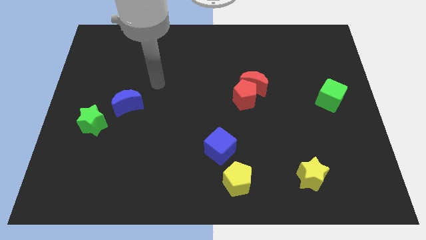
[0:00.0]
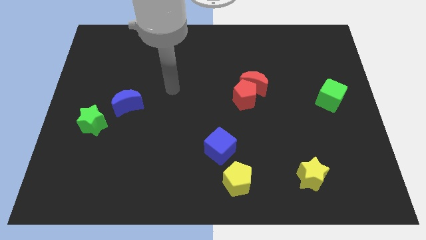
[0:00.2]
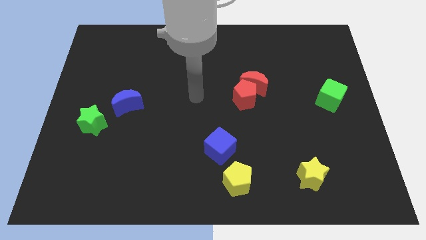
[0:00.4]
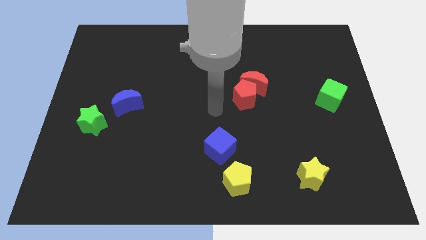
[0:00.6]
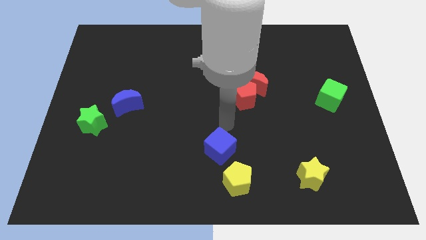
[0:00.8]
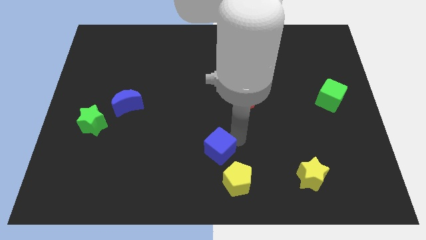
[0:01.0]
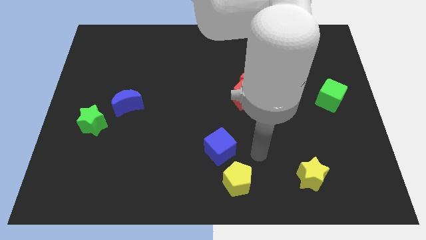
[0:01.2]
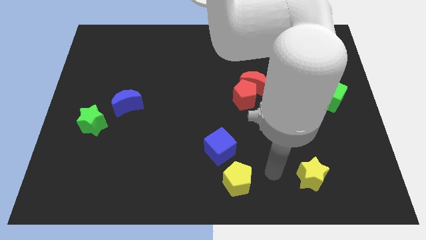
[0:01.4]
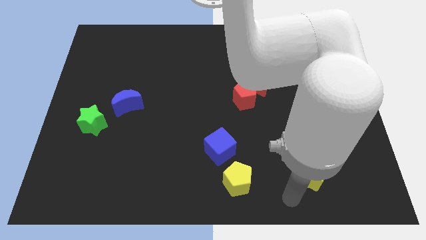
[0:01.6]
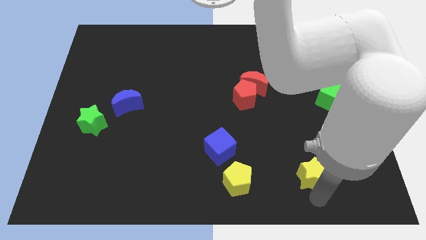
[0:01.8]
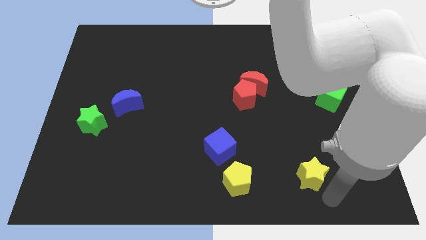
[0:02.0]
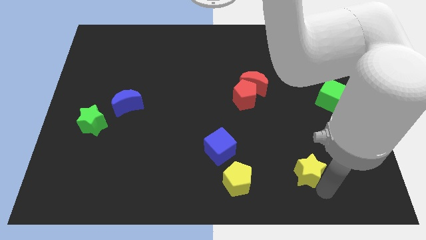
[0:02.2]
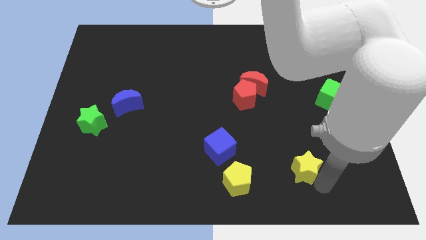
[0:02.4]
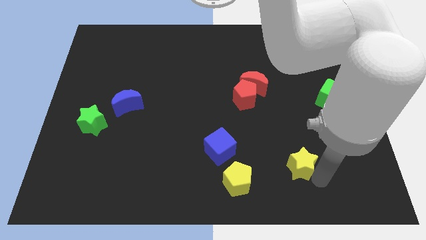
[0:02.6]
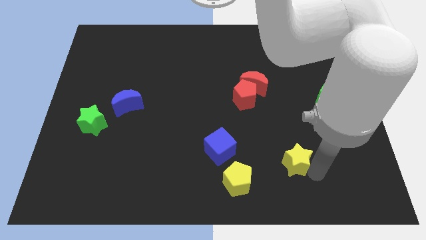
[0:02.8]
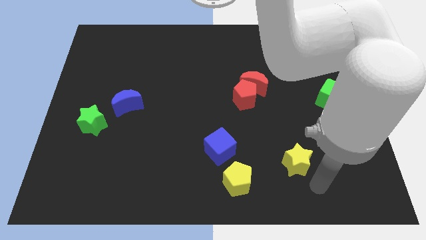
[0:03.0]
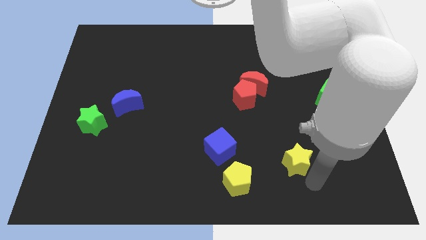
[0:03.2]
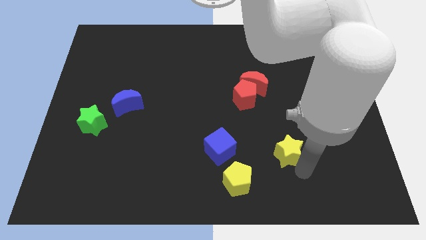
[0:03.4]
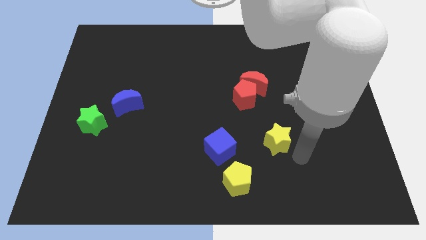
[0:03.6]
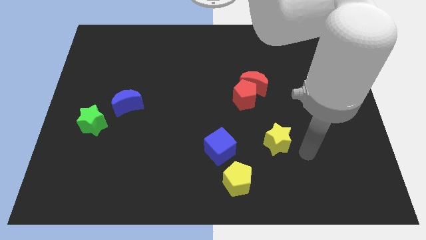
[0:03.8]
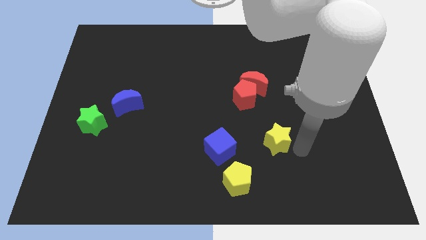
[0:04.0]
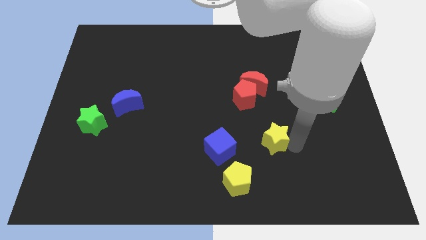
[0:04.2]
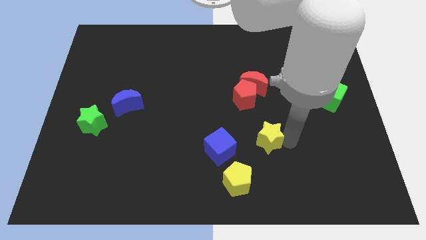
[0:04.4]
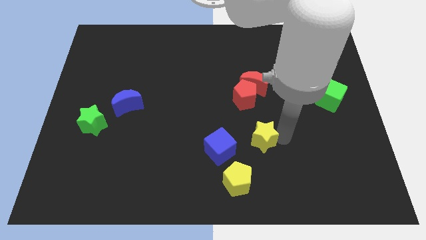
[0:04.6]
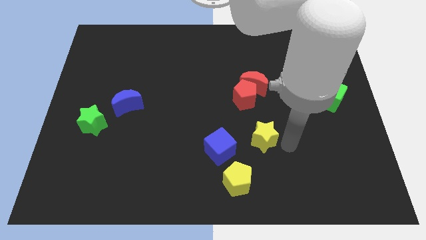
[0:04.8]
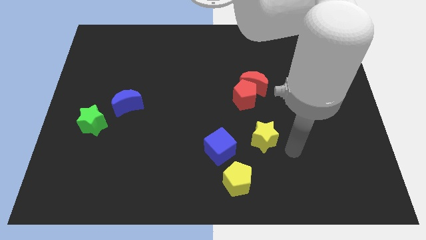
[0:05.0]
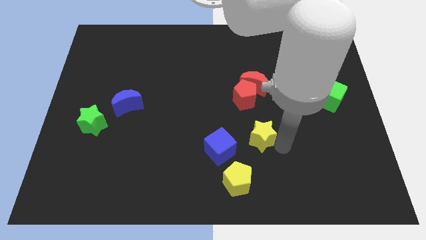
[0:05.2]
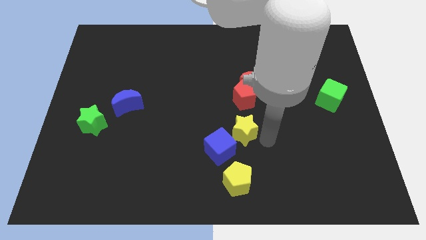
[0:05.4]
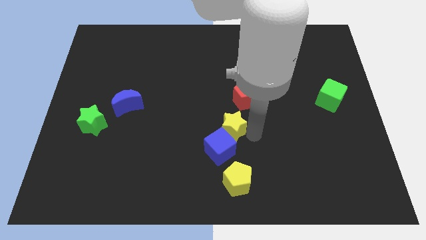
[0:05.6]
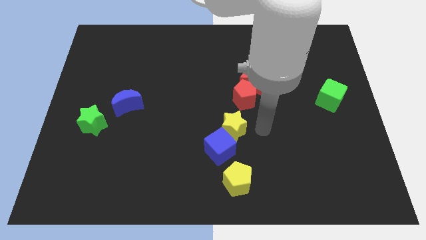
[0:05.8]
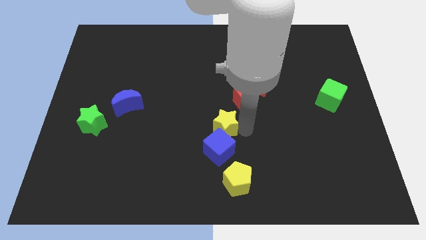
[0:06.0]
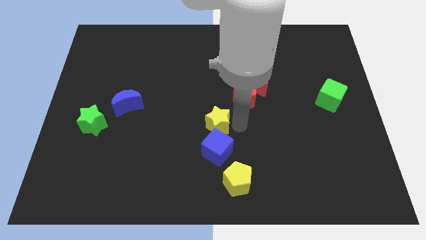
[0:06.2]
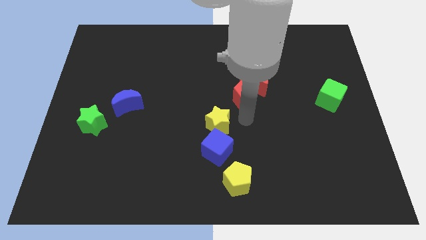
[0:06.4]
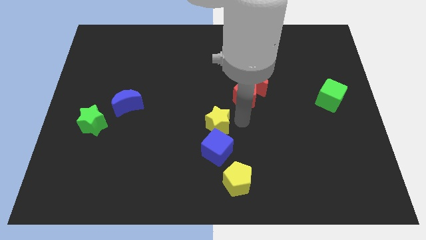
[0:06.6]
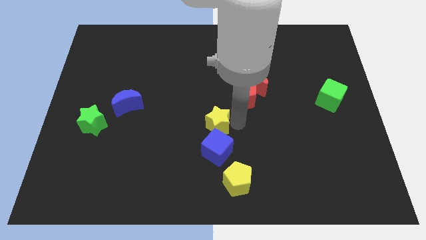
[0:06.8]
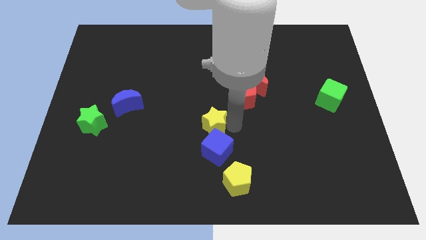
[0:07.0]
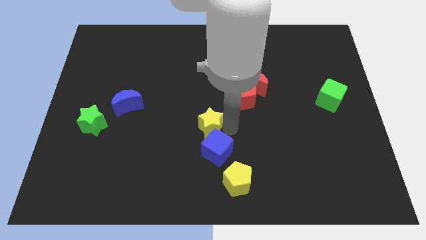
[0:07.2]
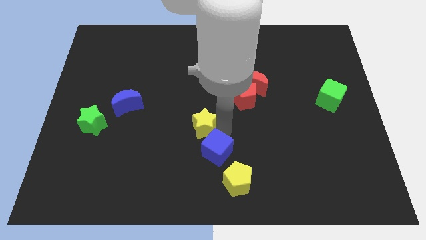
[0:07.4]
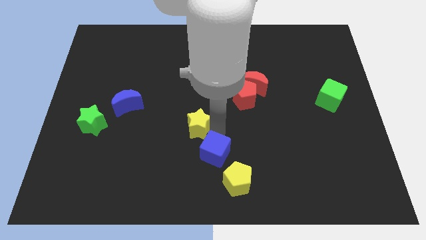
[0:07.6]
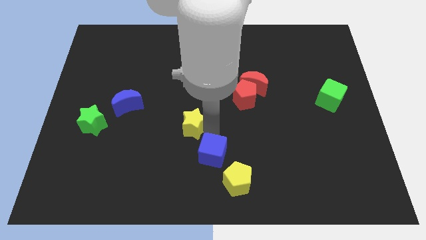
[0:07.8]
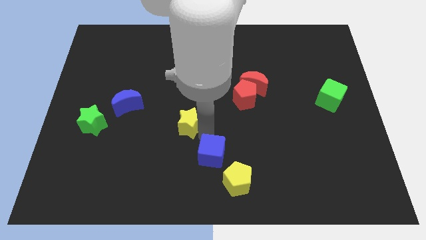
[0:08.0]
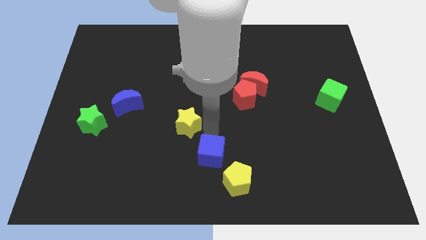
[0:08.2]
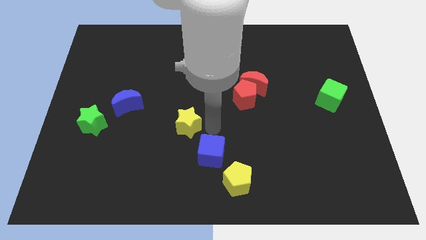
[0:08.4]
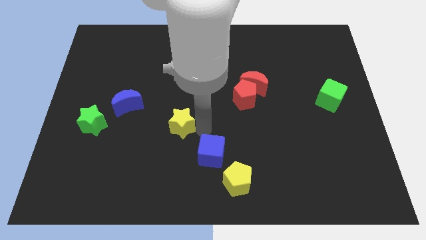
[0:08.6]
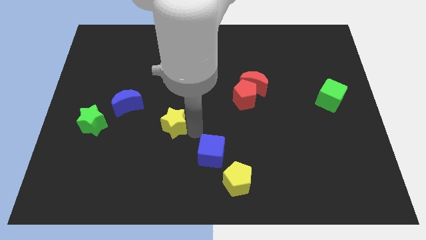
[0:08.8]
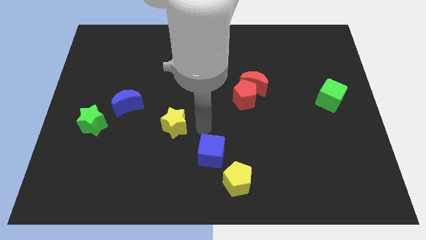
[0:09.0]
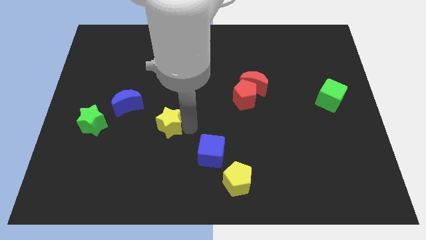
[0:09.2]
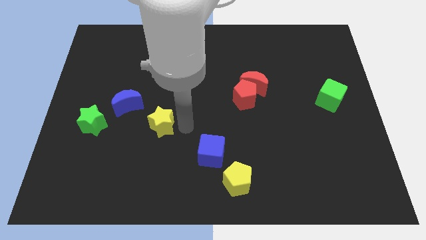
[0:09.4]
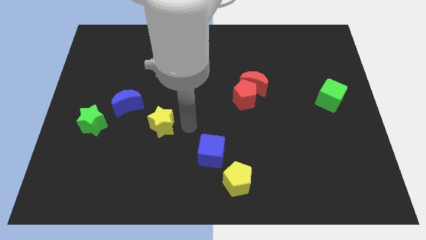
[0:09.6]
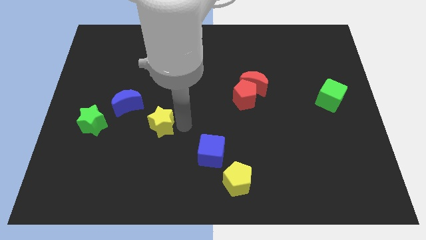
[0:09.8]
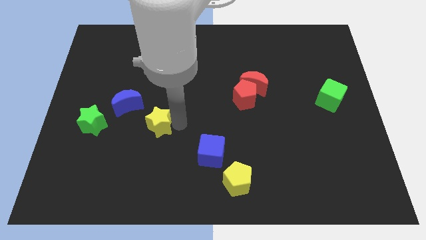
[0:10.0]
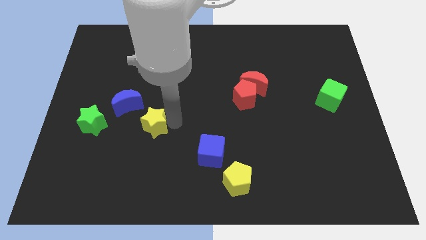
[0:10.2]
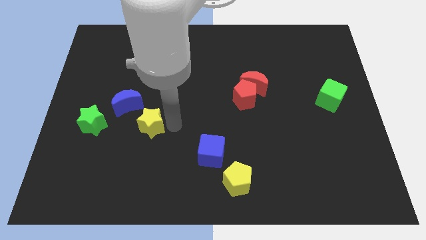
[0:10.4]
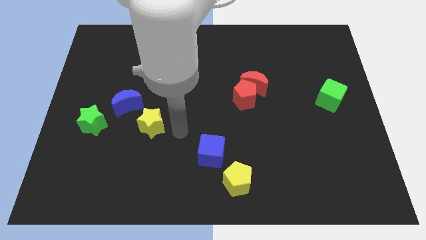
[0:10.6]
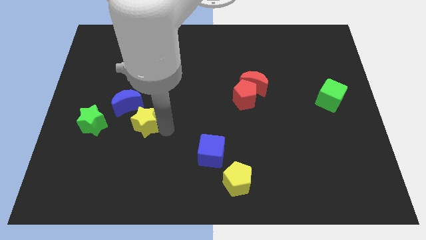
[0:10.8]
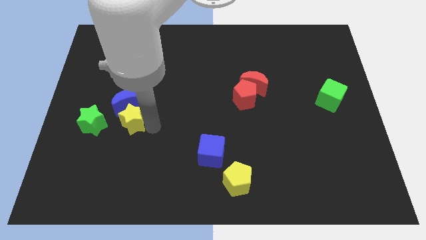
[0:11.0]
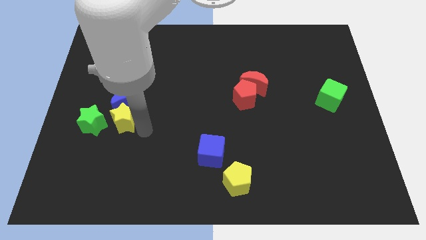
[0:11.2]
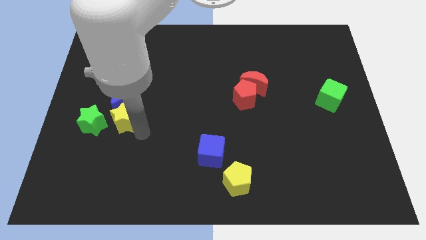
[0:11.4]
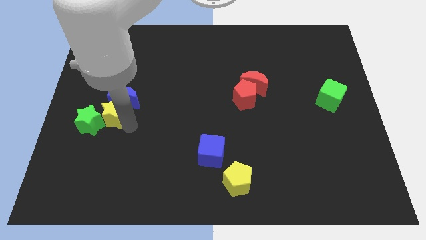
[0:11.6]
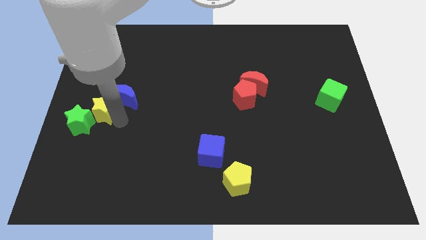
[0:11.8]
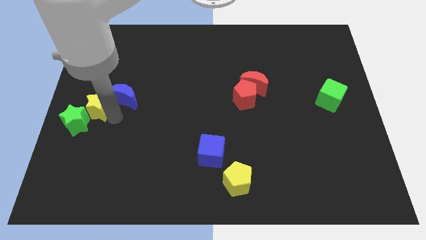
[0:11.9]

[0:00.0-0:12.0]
put the yellow star to the center left

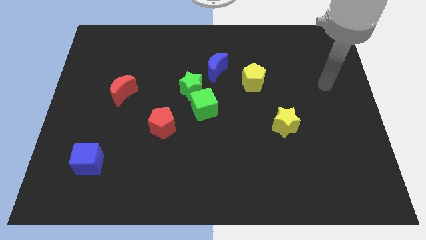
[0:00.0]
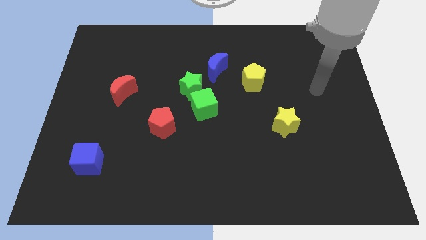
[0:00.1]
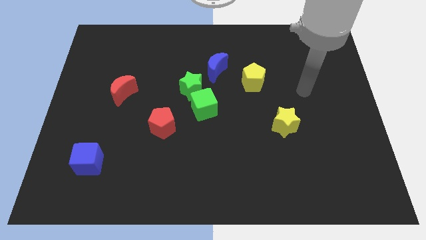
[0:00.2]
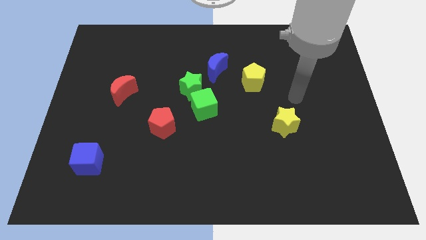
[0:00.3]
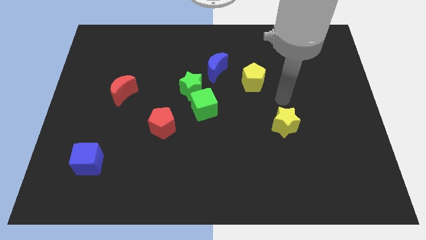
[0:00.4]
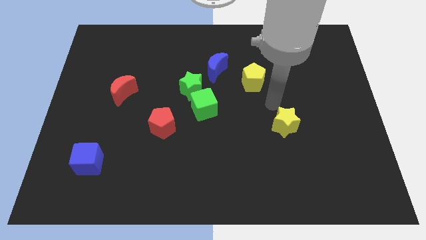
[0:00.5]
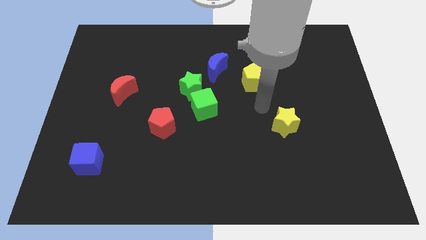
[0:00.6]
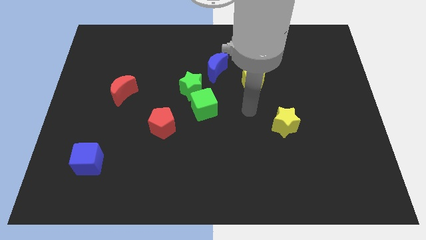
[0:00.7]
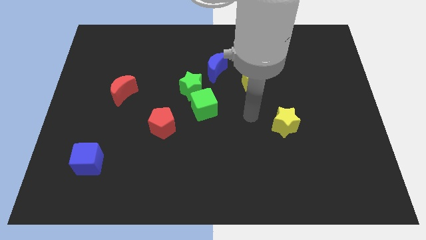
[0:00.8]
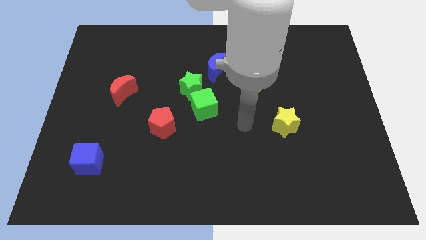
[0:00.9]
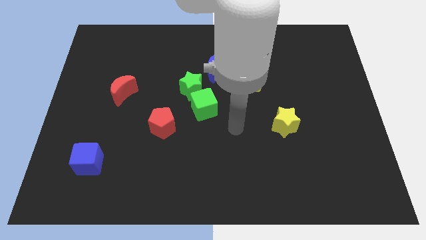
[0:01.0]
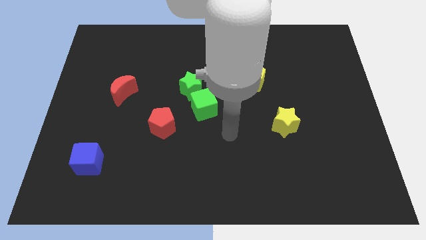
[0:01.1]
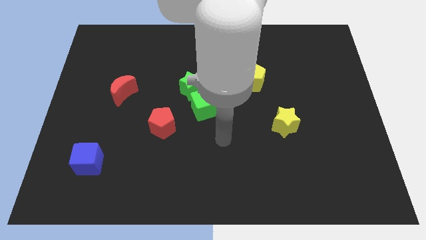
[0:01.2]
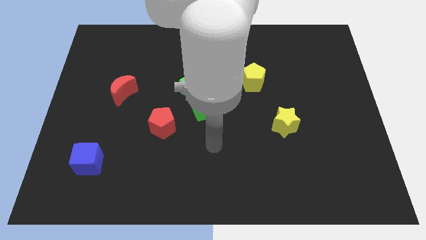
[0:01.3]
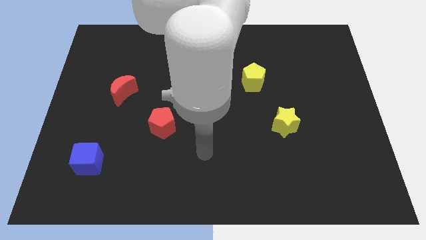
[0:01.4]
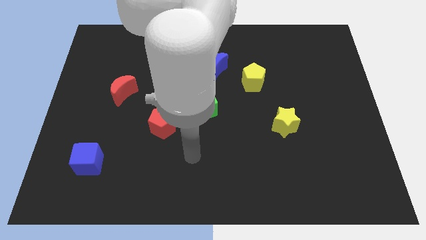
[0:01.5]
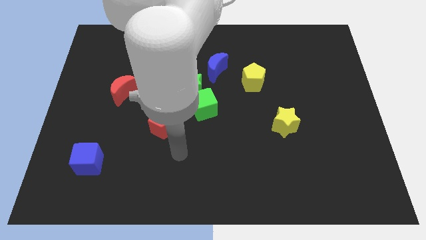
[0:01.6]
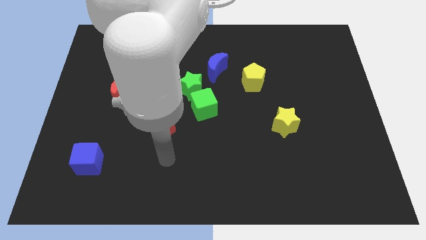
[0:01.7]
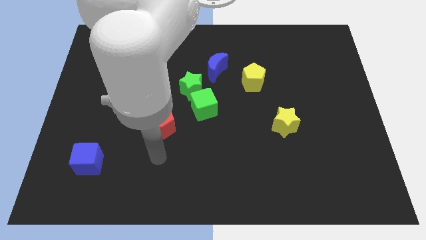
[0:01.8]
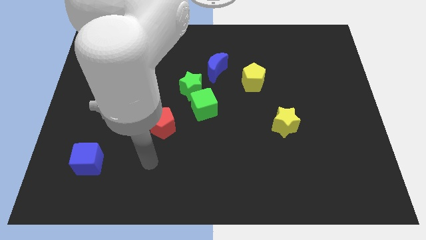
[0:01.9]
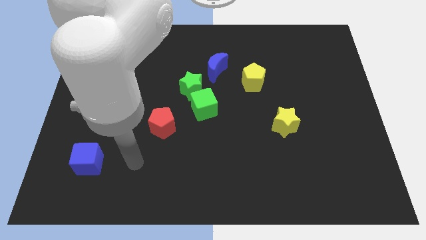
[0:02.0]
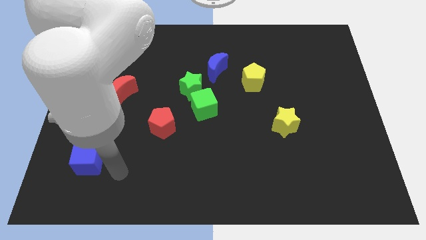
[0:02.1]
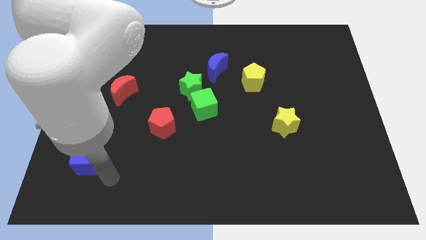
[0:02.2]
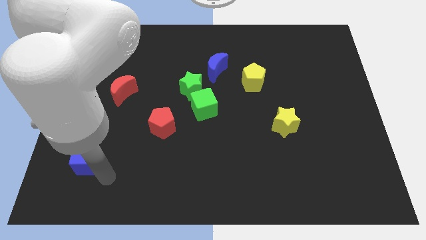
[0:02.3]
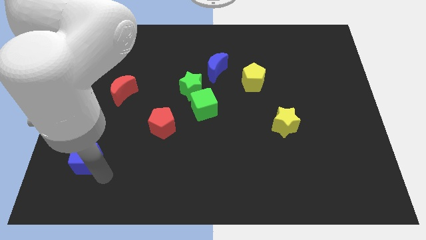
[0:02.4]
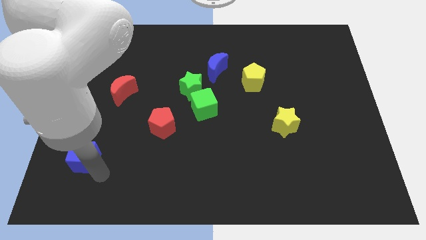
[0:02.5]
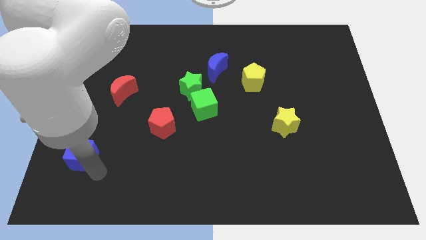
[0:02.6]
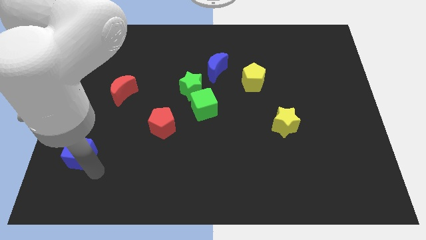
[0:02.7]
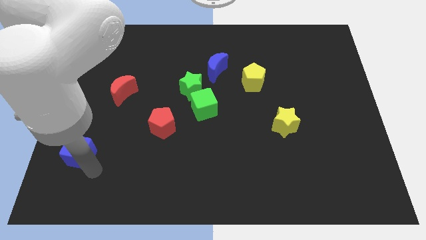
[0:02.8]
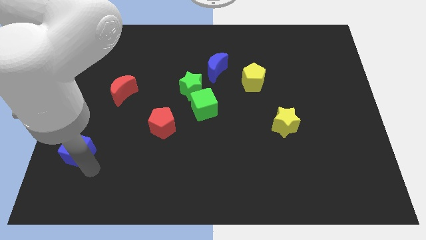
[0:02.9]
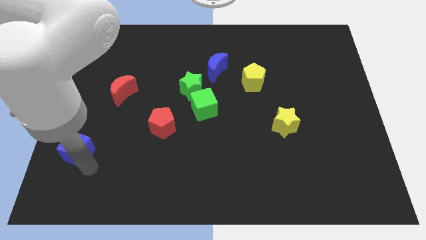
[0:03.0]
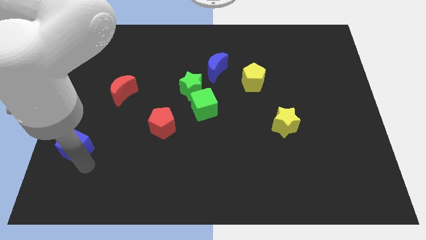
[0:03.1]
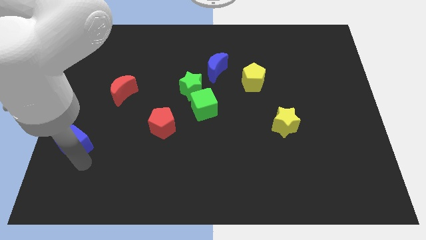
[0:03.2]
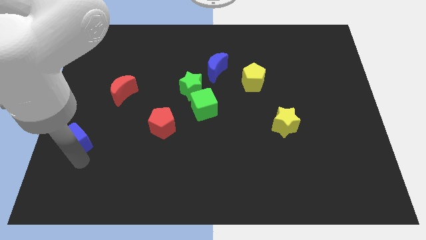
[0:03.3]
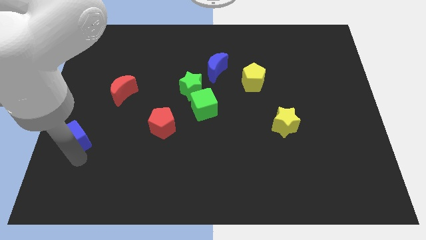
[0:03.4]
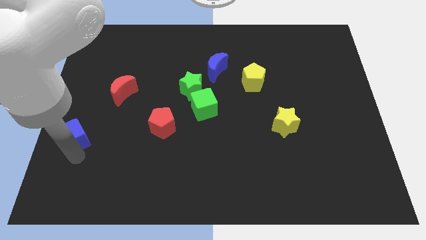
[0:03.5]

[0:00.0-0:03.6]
push the blue cube to the left side of the board
